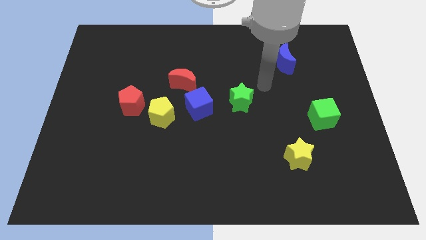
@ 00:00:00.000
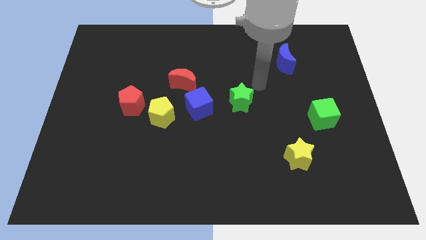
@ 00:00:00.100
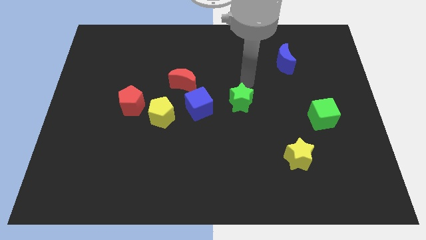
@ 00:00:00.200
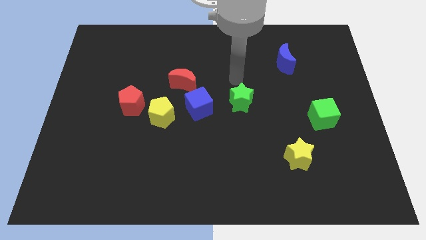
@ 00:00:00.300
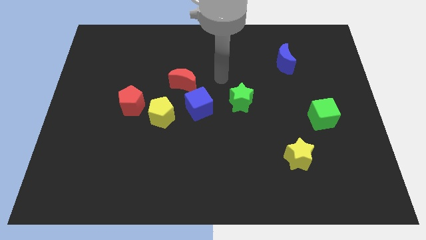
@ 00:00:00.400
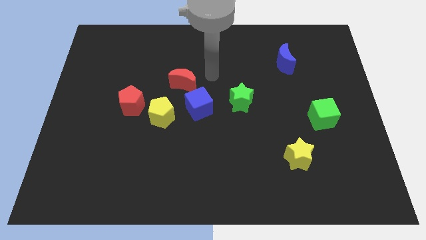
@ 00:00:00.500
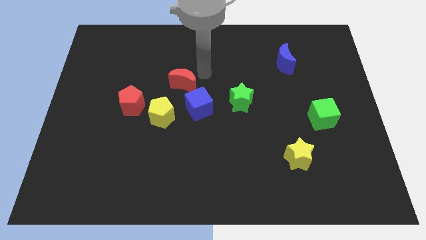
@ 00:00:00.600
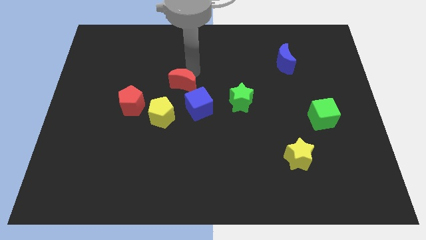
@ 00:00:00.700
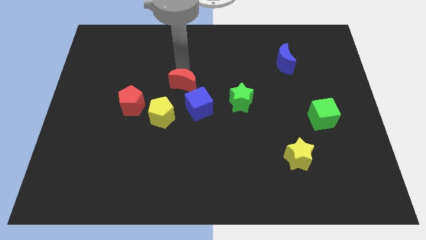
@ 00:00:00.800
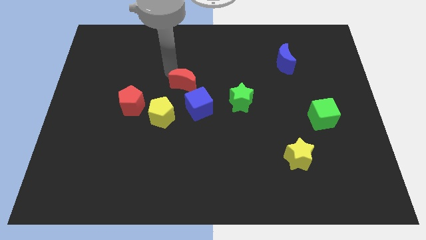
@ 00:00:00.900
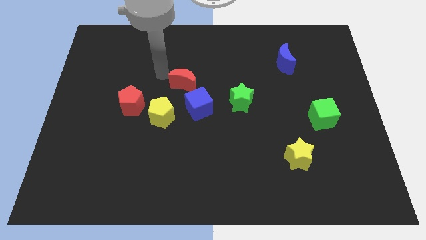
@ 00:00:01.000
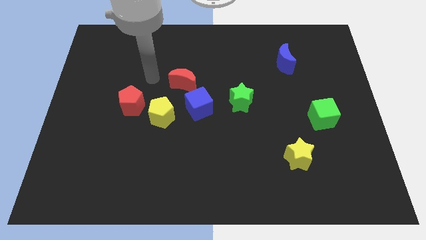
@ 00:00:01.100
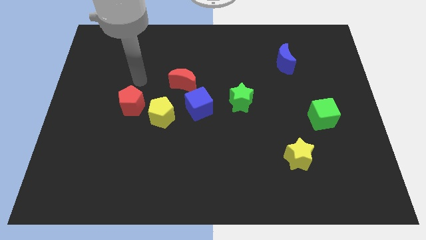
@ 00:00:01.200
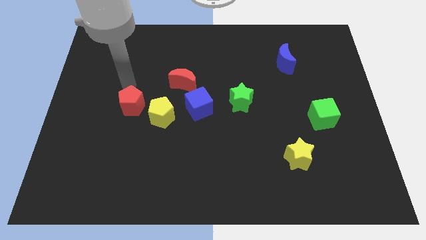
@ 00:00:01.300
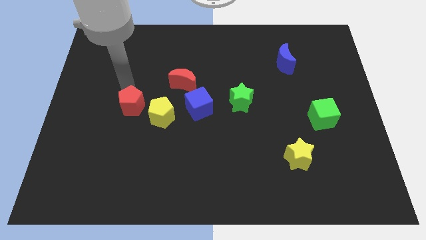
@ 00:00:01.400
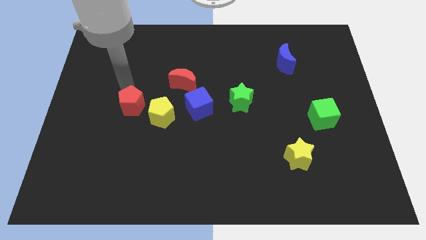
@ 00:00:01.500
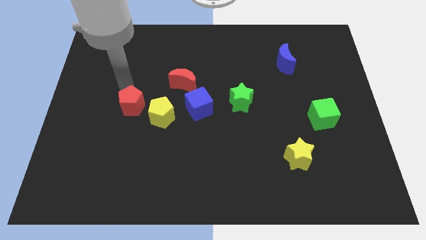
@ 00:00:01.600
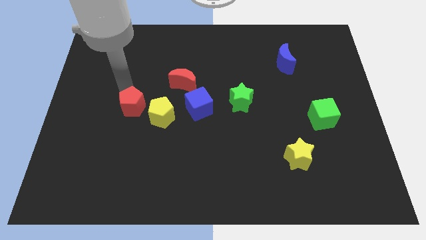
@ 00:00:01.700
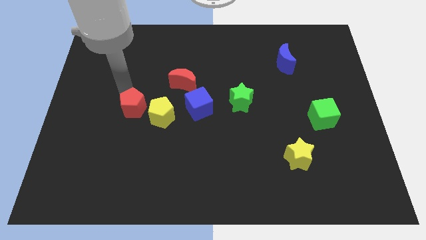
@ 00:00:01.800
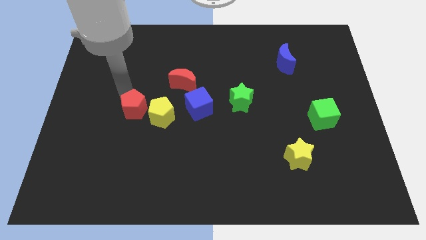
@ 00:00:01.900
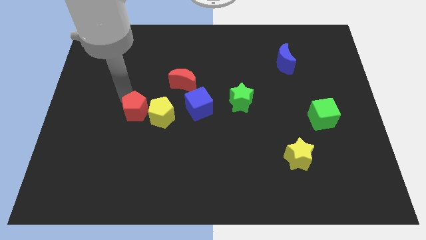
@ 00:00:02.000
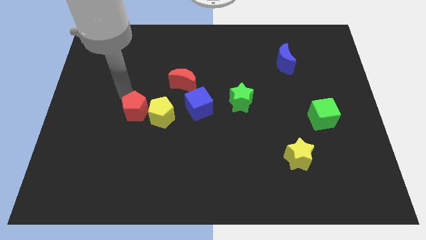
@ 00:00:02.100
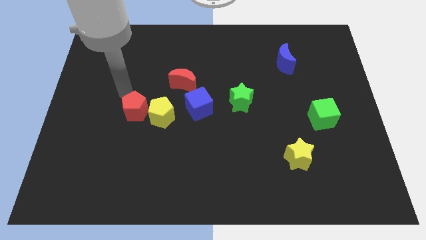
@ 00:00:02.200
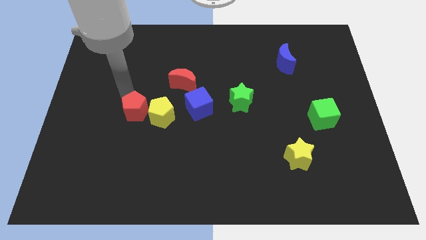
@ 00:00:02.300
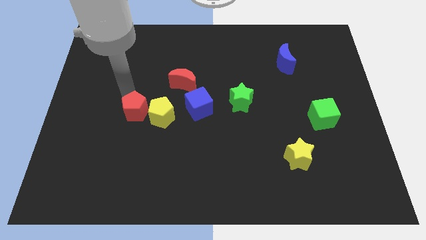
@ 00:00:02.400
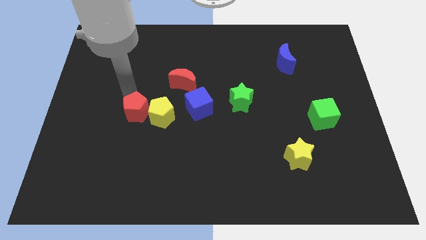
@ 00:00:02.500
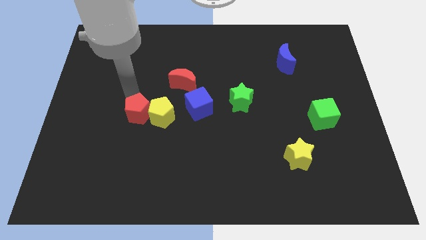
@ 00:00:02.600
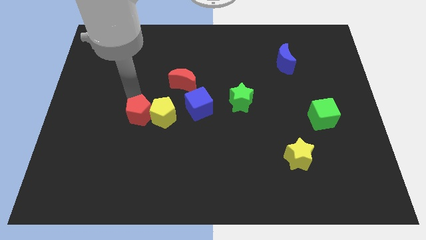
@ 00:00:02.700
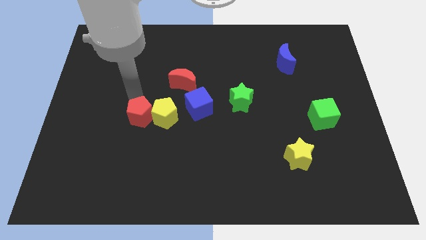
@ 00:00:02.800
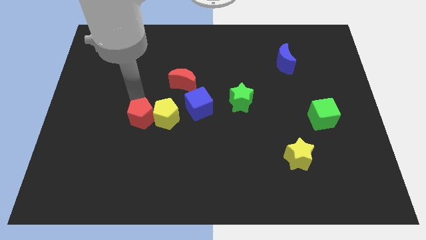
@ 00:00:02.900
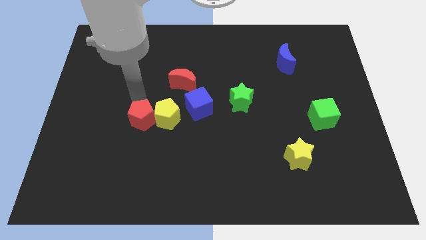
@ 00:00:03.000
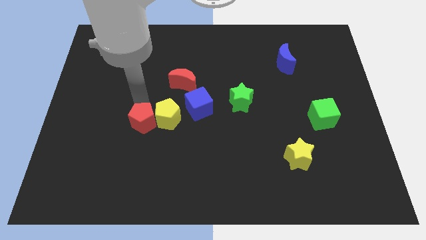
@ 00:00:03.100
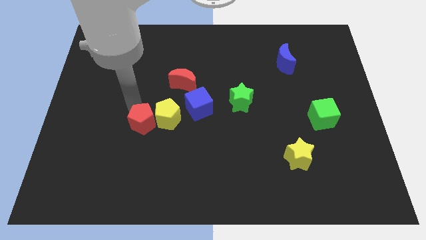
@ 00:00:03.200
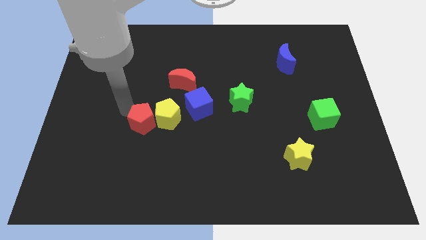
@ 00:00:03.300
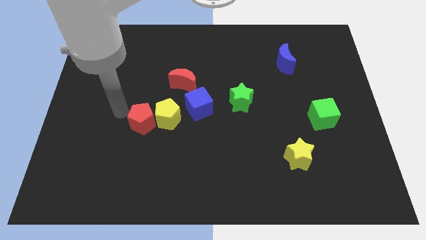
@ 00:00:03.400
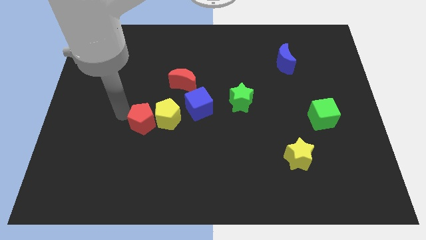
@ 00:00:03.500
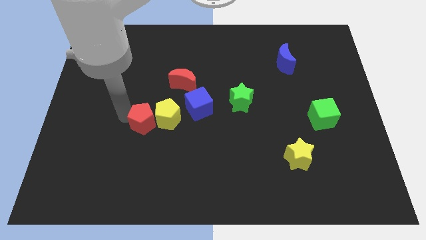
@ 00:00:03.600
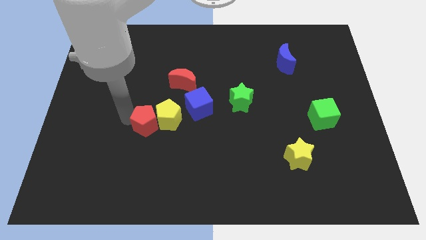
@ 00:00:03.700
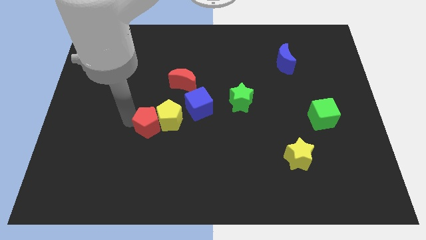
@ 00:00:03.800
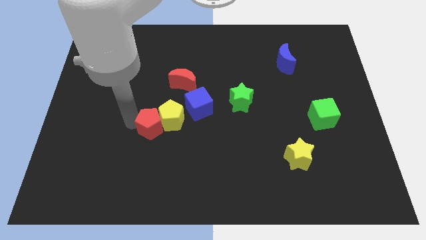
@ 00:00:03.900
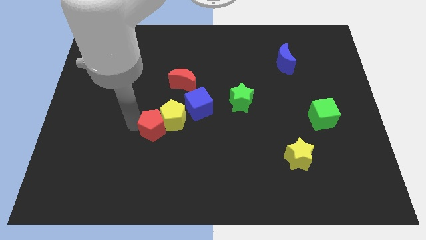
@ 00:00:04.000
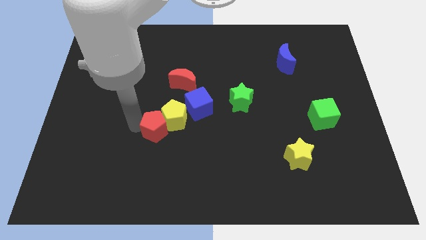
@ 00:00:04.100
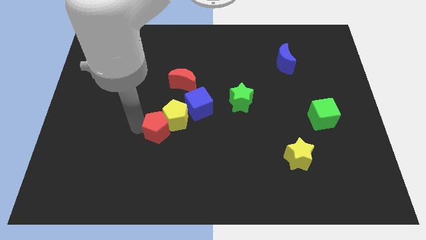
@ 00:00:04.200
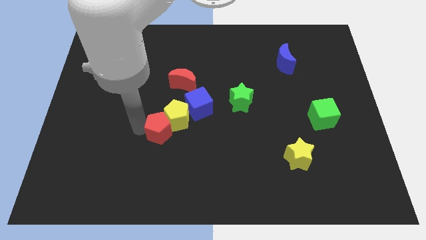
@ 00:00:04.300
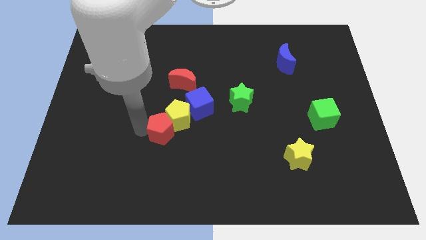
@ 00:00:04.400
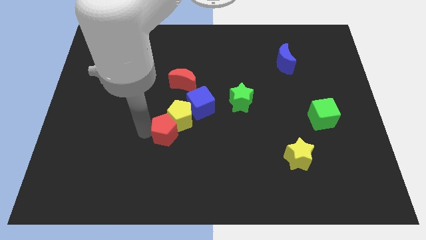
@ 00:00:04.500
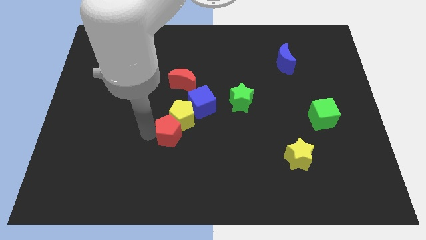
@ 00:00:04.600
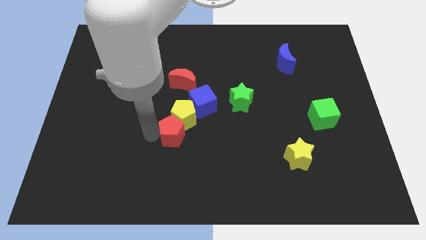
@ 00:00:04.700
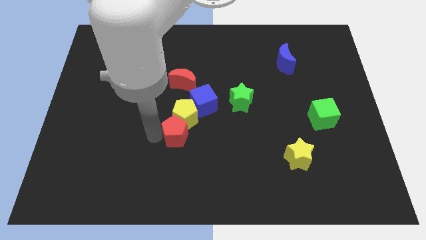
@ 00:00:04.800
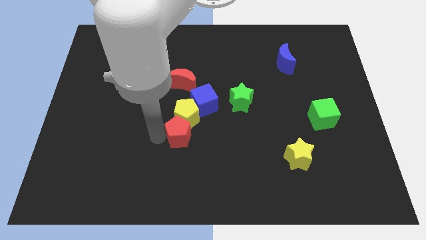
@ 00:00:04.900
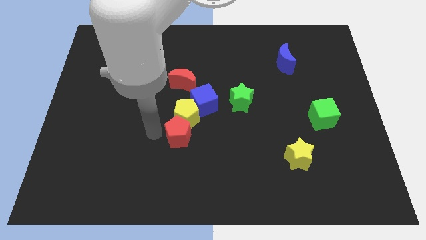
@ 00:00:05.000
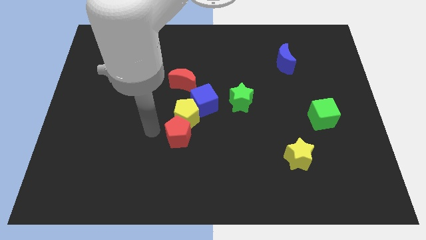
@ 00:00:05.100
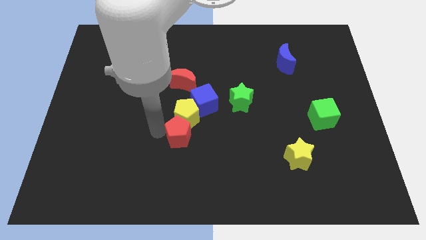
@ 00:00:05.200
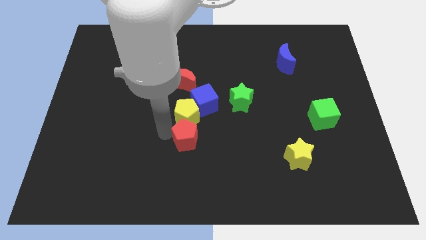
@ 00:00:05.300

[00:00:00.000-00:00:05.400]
move the red pentagon to the bottom of the blue cube

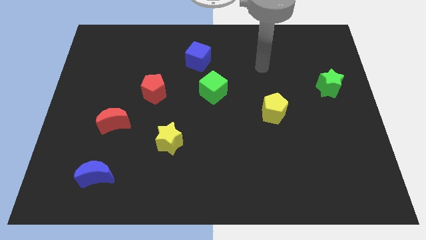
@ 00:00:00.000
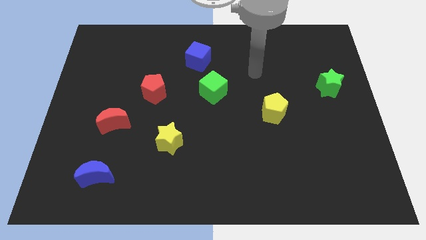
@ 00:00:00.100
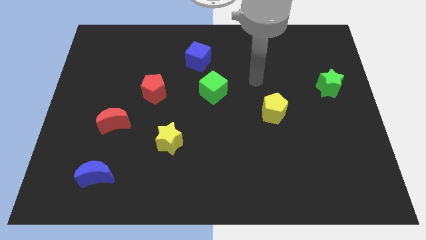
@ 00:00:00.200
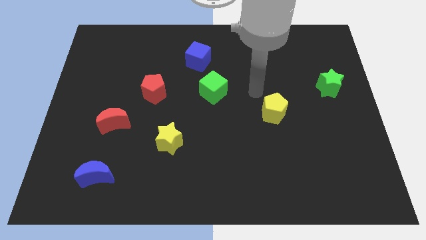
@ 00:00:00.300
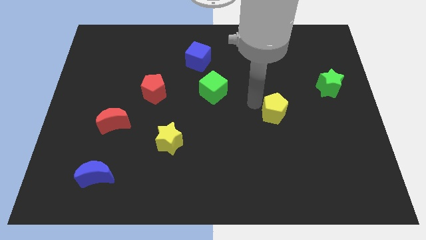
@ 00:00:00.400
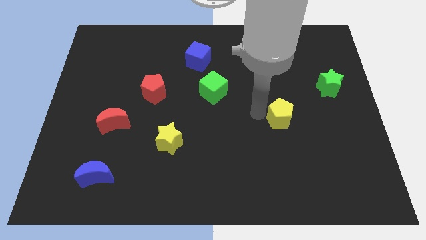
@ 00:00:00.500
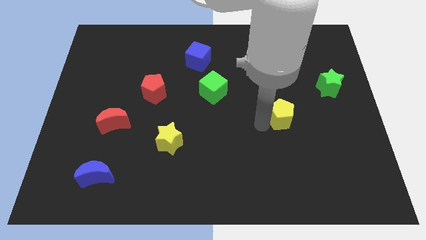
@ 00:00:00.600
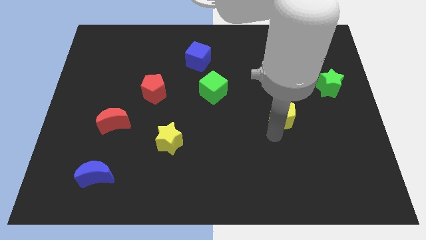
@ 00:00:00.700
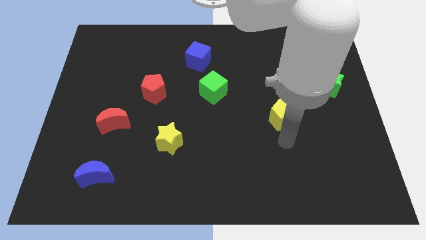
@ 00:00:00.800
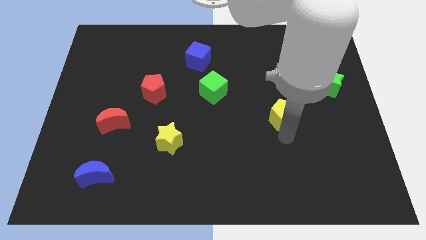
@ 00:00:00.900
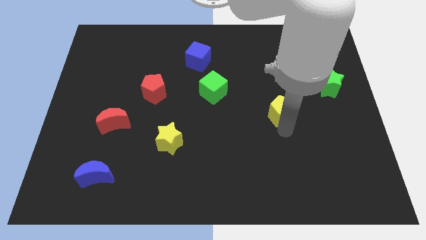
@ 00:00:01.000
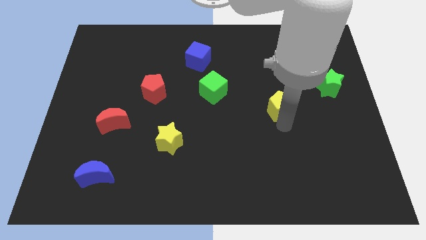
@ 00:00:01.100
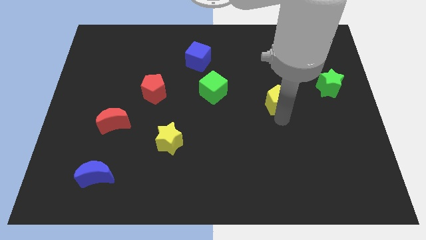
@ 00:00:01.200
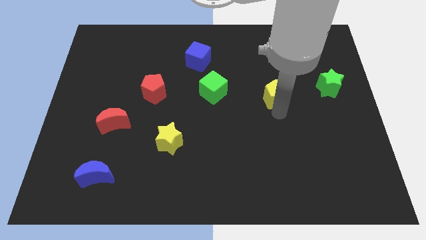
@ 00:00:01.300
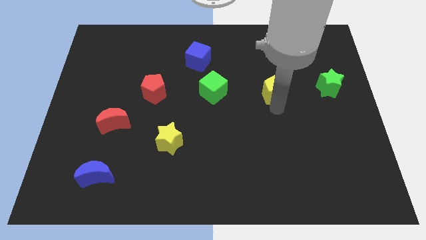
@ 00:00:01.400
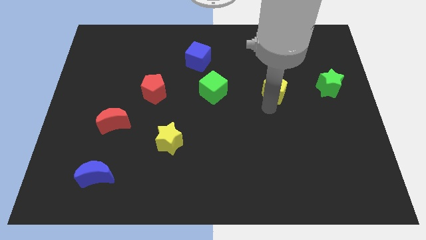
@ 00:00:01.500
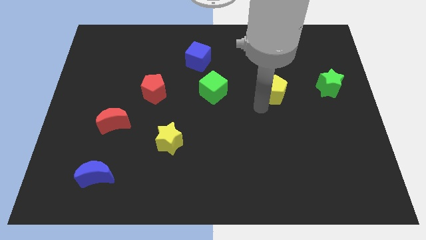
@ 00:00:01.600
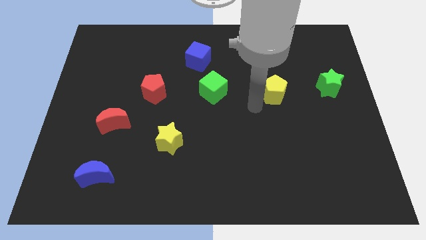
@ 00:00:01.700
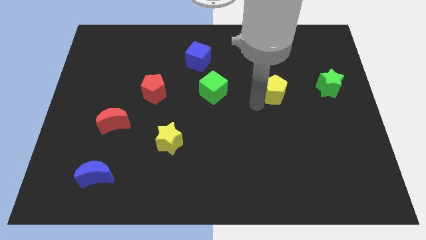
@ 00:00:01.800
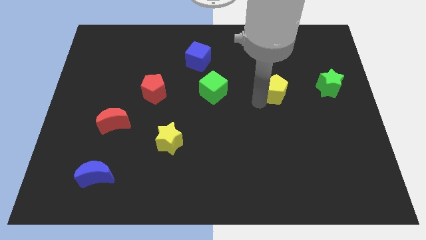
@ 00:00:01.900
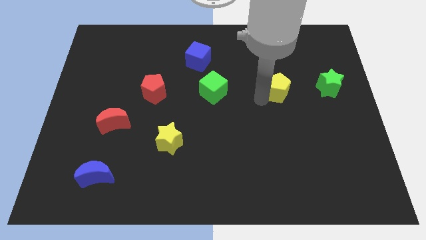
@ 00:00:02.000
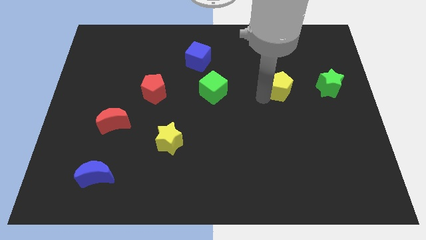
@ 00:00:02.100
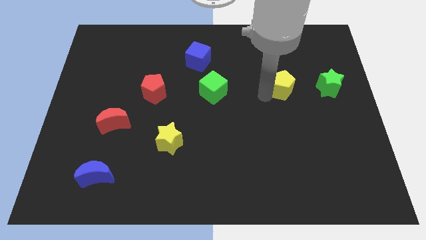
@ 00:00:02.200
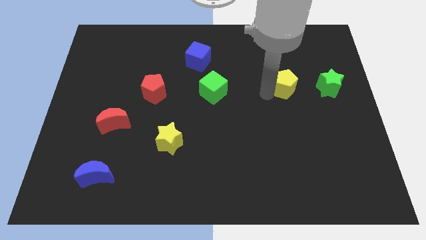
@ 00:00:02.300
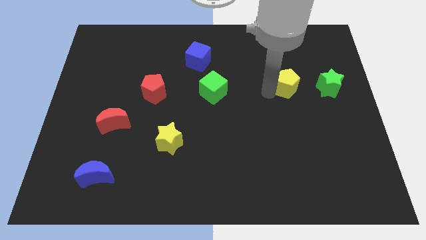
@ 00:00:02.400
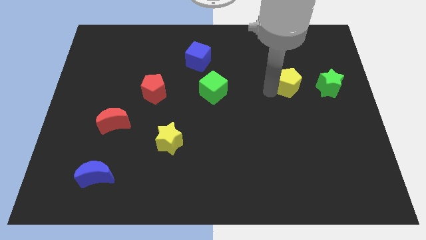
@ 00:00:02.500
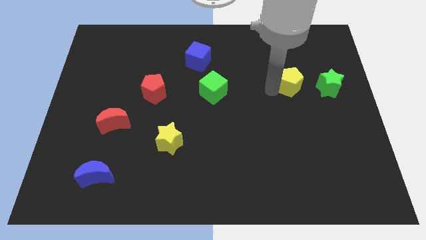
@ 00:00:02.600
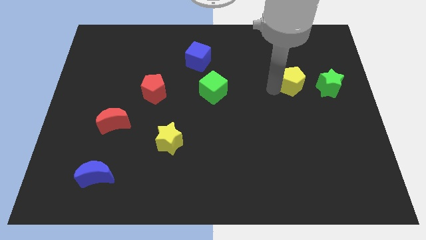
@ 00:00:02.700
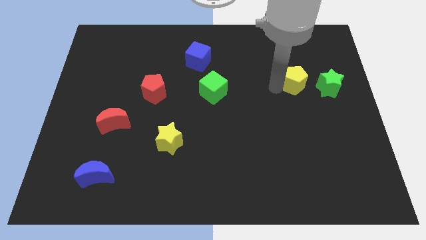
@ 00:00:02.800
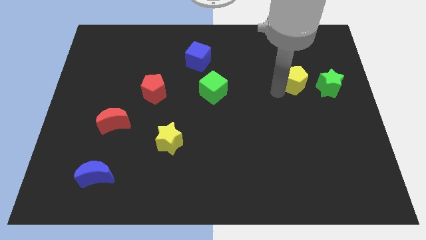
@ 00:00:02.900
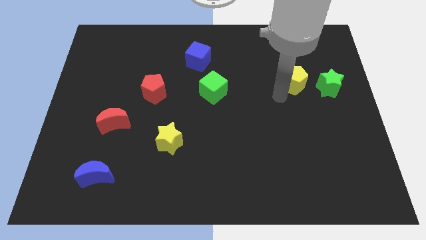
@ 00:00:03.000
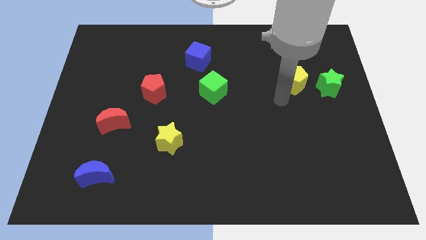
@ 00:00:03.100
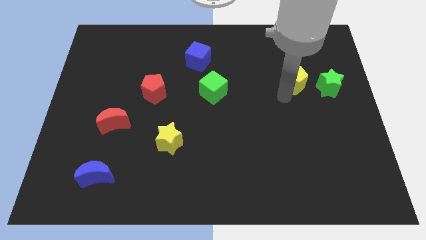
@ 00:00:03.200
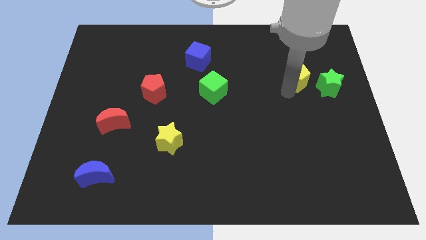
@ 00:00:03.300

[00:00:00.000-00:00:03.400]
push the yellow pentagon to the top left of the green star
